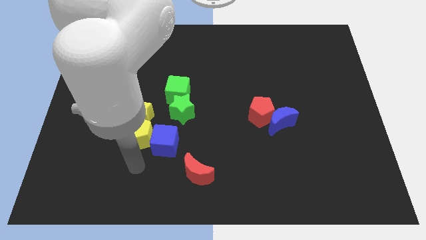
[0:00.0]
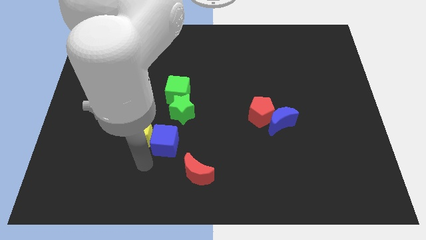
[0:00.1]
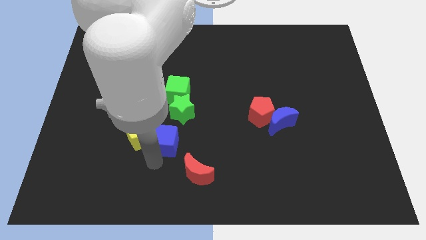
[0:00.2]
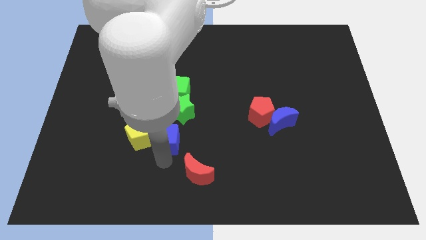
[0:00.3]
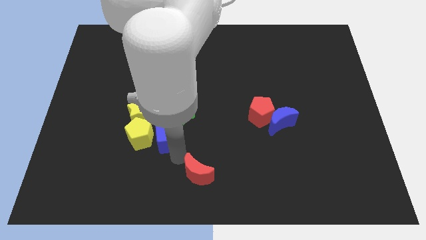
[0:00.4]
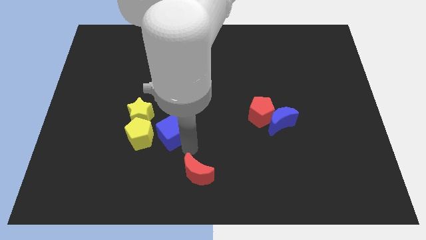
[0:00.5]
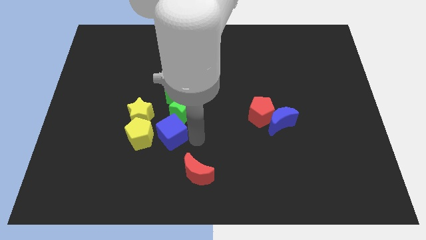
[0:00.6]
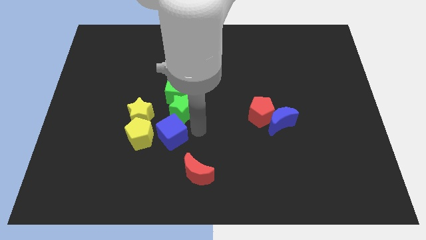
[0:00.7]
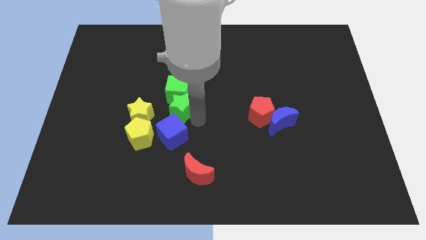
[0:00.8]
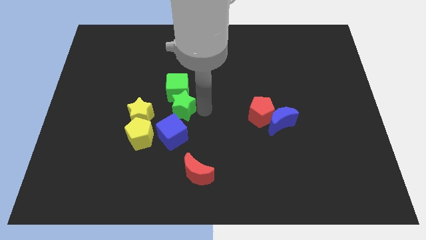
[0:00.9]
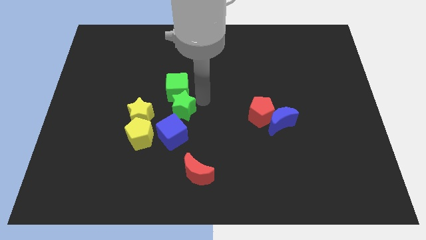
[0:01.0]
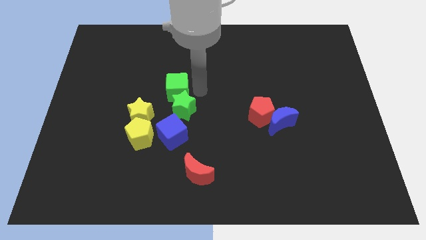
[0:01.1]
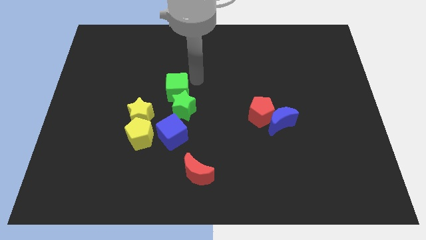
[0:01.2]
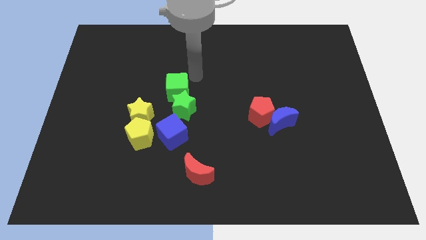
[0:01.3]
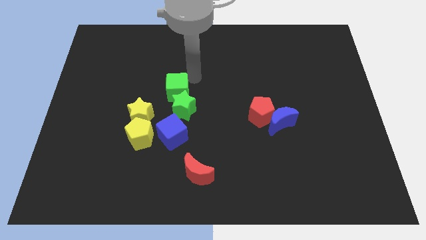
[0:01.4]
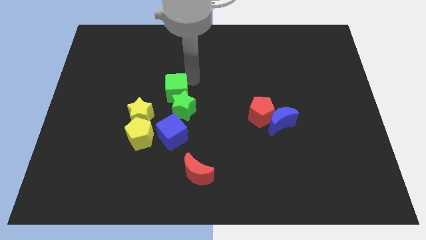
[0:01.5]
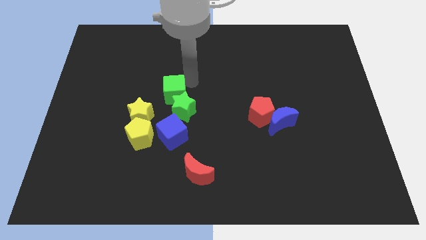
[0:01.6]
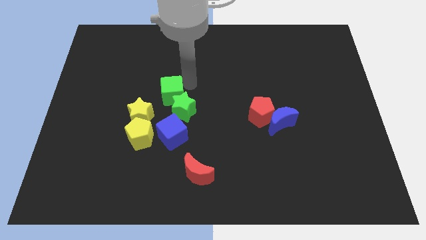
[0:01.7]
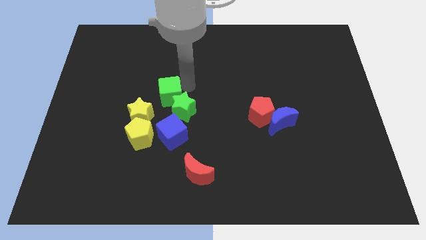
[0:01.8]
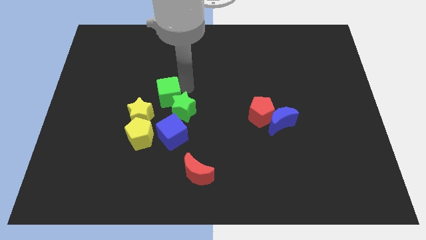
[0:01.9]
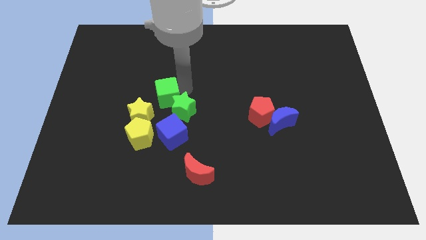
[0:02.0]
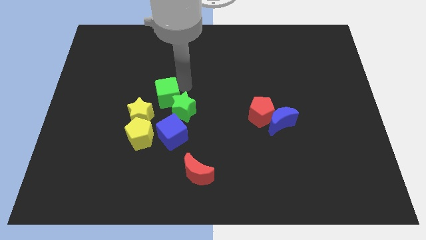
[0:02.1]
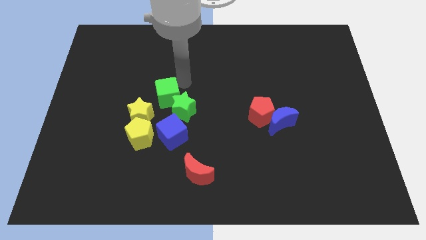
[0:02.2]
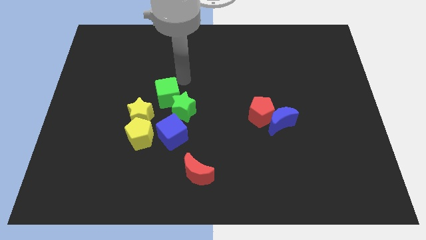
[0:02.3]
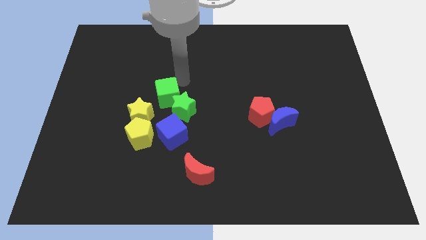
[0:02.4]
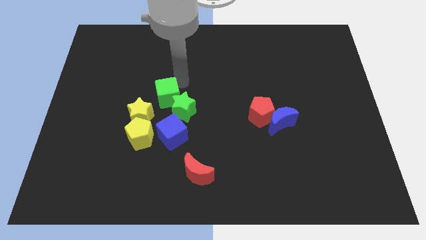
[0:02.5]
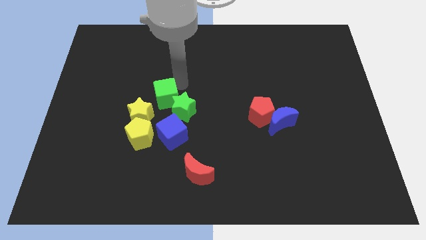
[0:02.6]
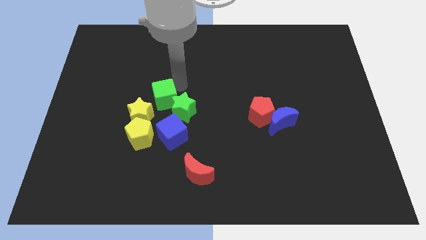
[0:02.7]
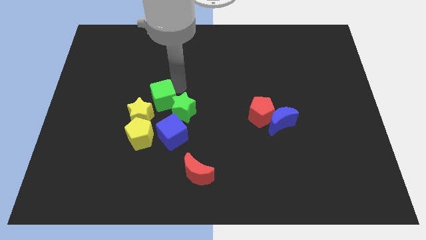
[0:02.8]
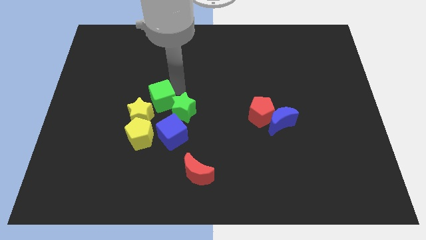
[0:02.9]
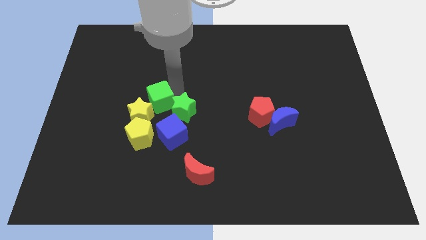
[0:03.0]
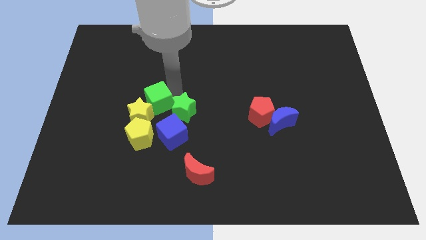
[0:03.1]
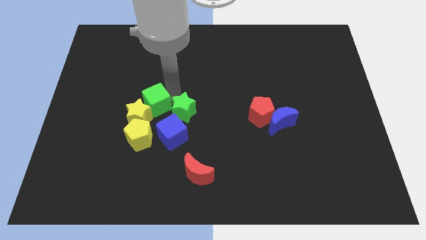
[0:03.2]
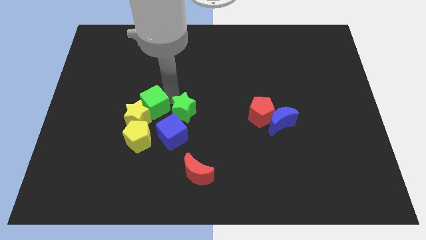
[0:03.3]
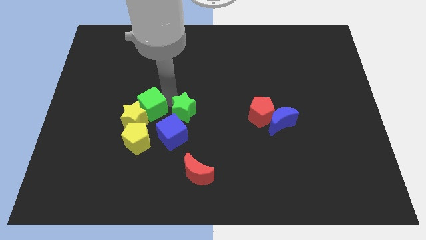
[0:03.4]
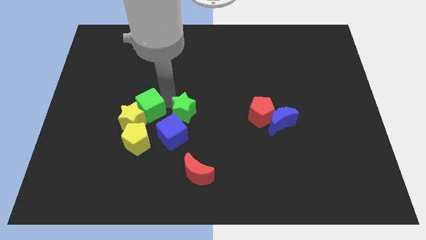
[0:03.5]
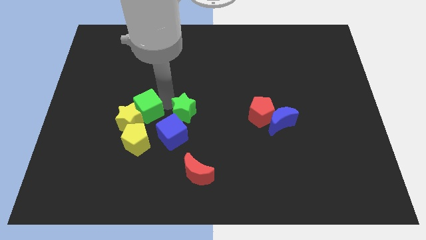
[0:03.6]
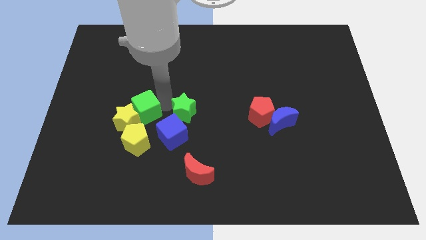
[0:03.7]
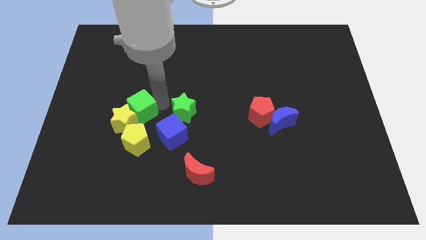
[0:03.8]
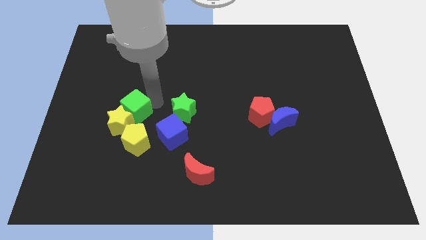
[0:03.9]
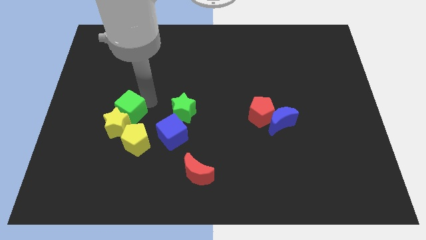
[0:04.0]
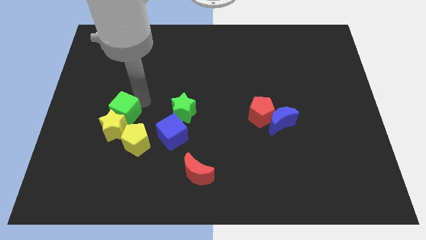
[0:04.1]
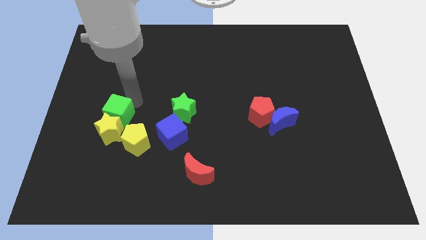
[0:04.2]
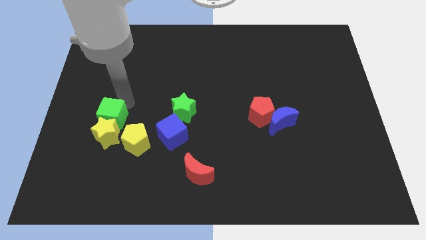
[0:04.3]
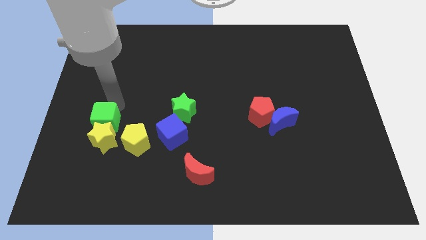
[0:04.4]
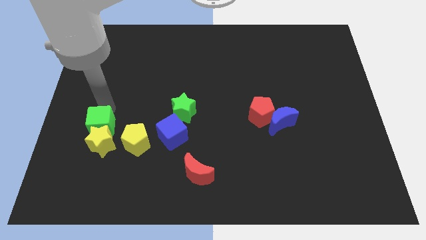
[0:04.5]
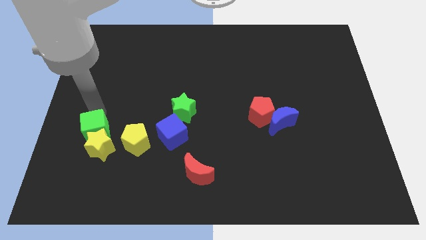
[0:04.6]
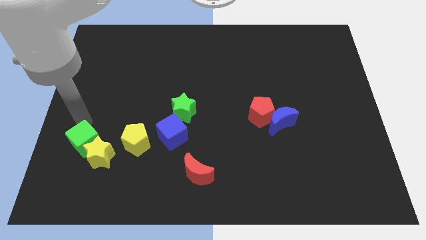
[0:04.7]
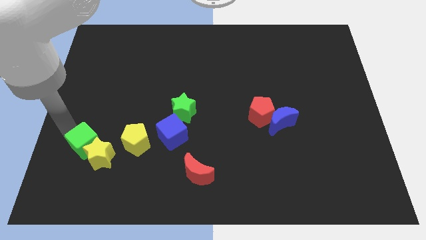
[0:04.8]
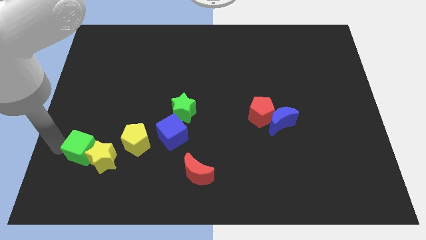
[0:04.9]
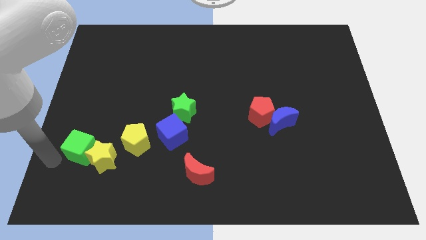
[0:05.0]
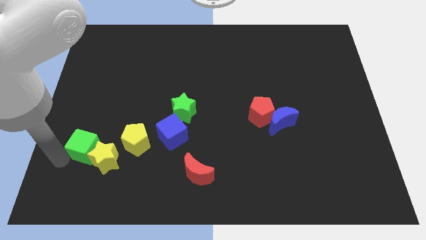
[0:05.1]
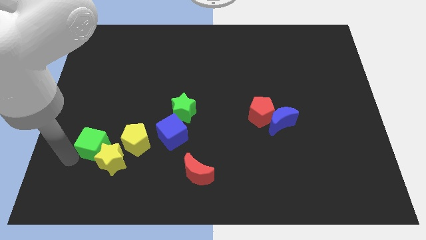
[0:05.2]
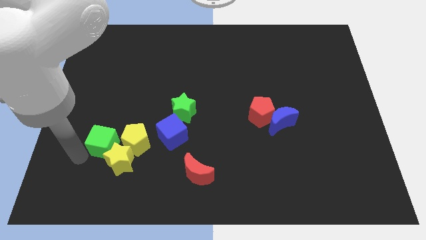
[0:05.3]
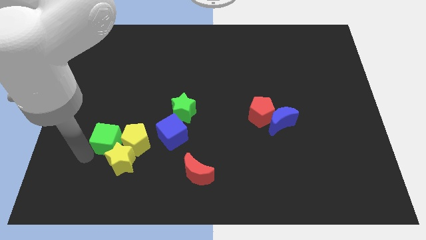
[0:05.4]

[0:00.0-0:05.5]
slide the green cube close to the yellow pentagon

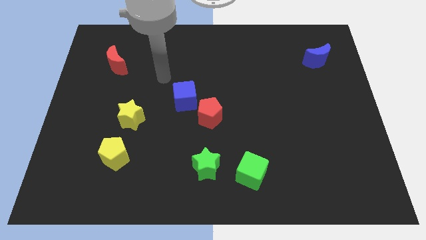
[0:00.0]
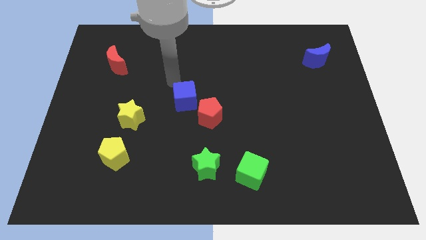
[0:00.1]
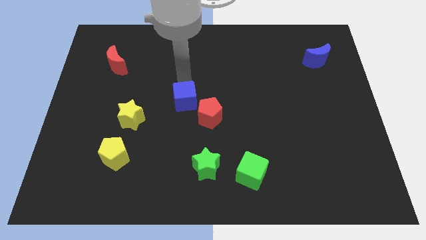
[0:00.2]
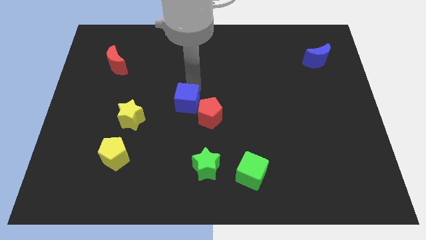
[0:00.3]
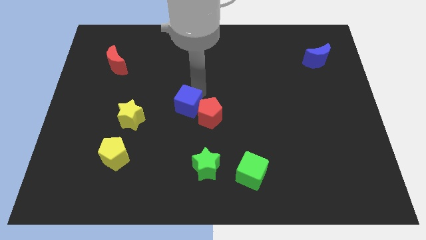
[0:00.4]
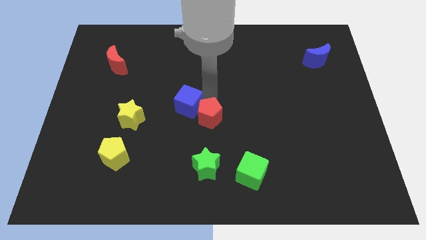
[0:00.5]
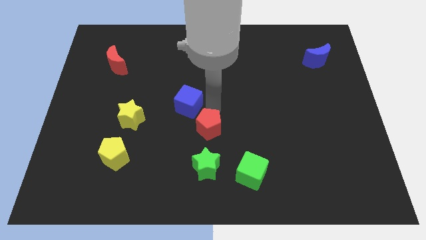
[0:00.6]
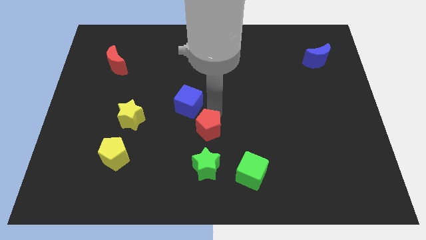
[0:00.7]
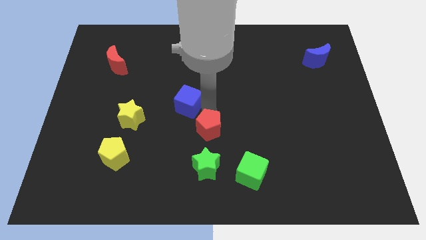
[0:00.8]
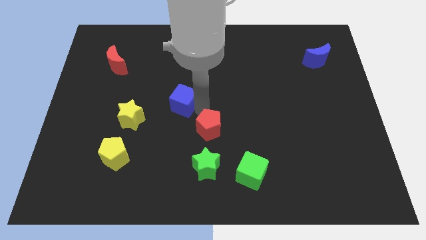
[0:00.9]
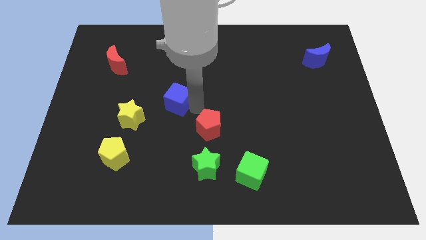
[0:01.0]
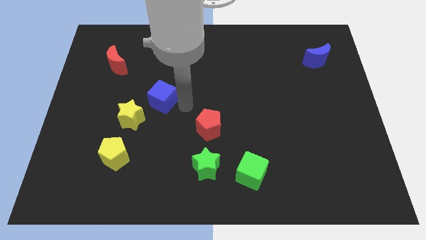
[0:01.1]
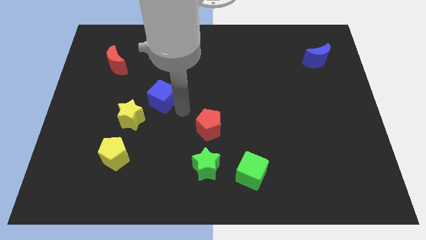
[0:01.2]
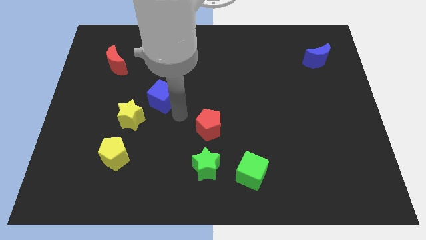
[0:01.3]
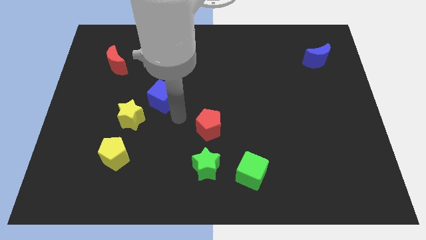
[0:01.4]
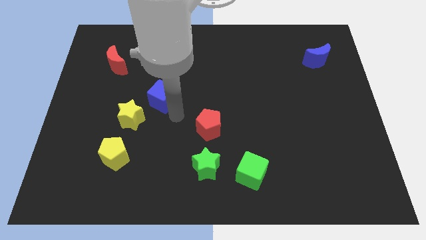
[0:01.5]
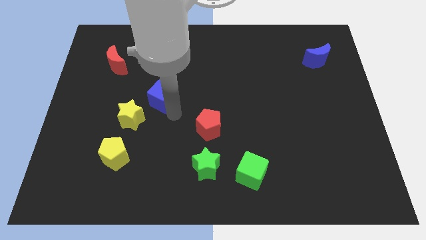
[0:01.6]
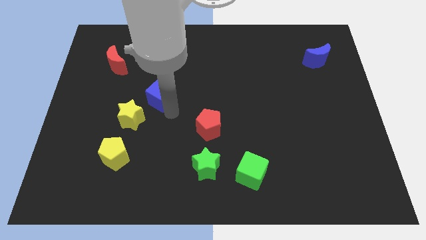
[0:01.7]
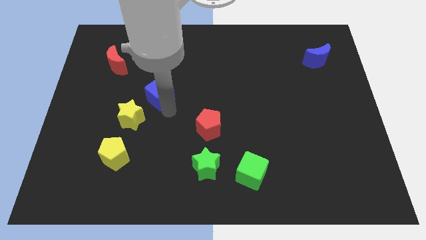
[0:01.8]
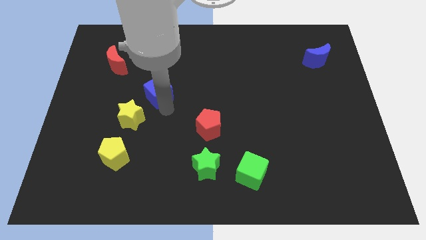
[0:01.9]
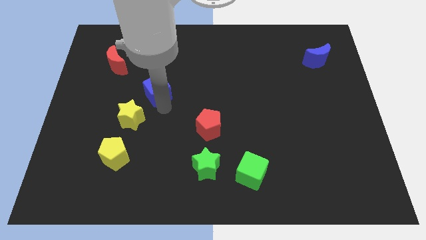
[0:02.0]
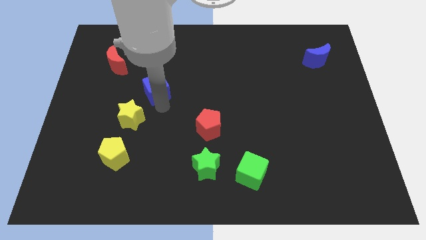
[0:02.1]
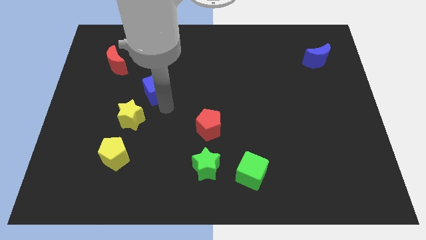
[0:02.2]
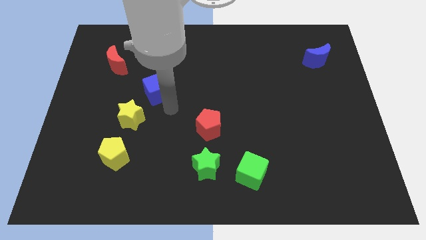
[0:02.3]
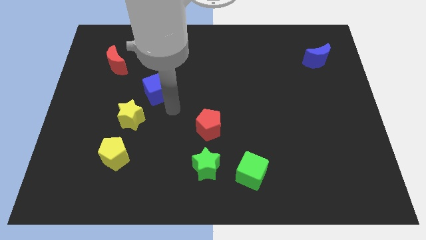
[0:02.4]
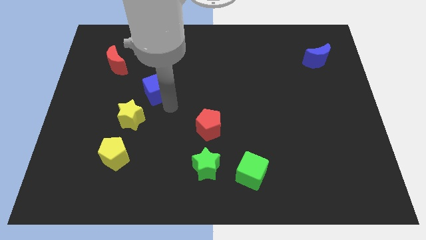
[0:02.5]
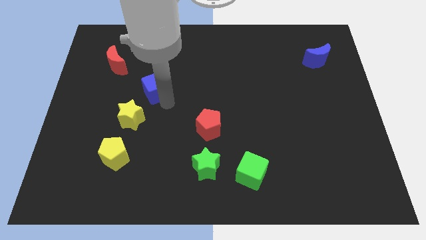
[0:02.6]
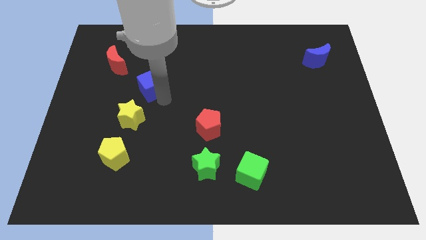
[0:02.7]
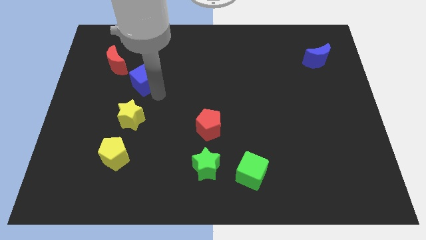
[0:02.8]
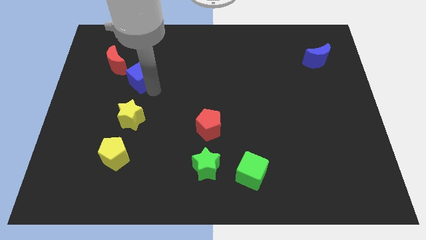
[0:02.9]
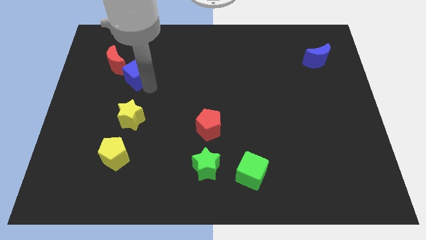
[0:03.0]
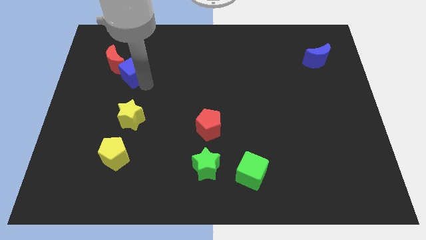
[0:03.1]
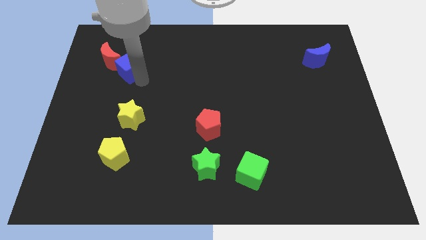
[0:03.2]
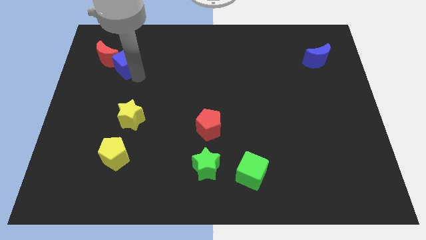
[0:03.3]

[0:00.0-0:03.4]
put the blue cube close to the red moon
